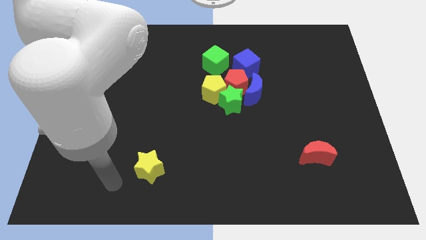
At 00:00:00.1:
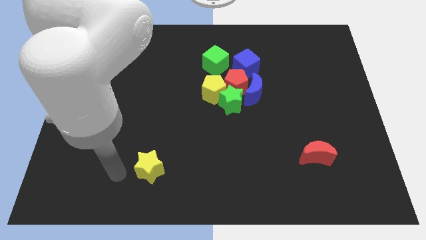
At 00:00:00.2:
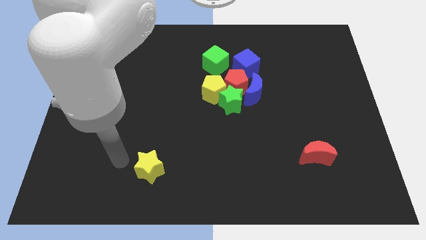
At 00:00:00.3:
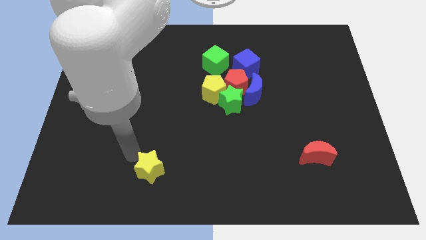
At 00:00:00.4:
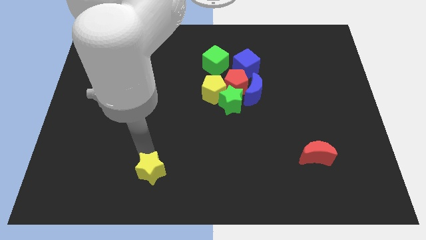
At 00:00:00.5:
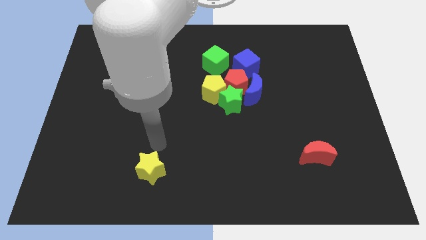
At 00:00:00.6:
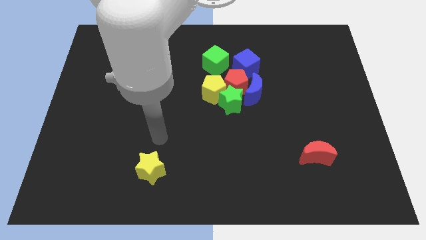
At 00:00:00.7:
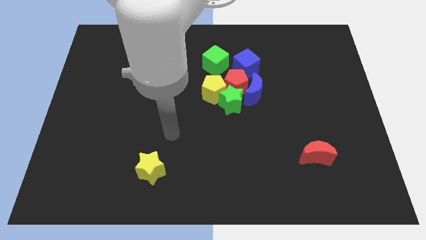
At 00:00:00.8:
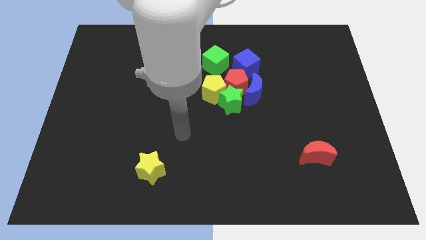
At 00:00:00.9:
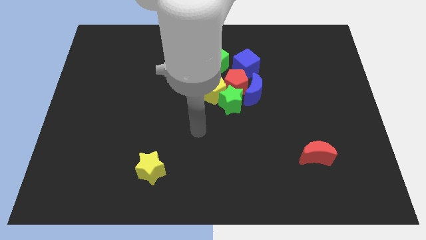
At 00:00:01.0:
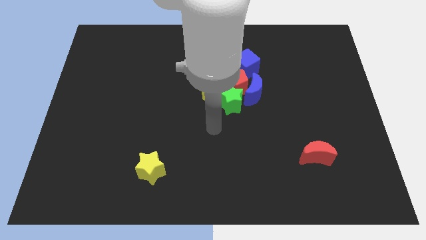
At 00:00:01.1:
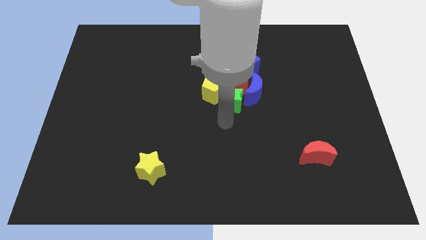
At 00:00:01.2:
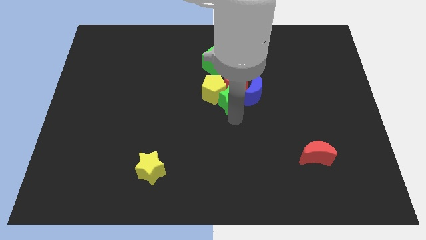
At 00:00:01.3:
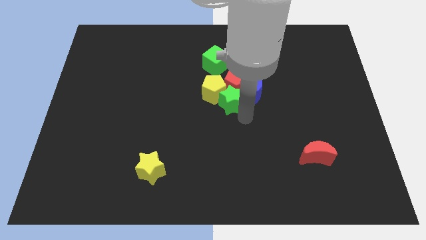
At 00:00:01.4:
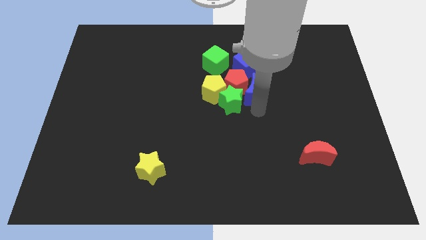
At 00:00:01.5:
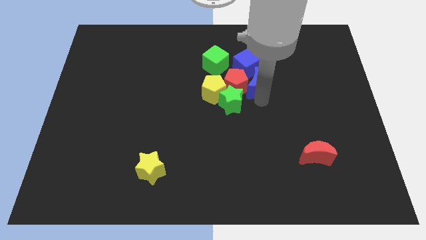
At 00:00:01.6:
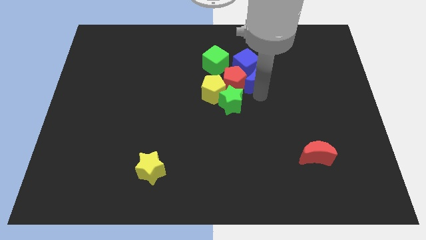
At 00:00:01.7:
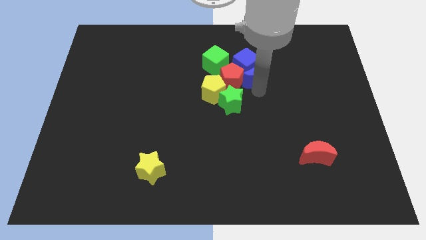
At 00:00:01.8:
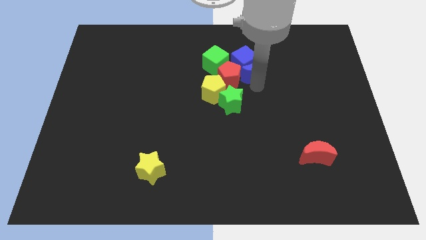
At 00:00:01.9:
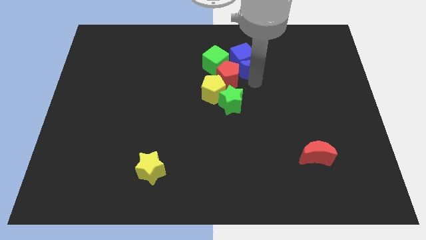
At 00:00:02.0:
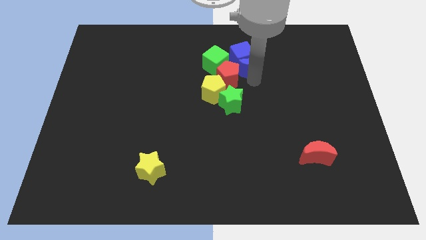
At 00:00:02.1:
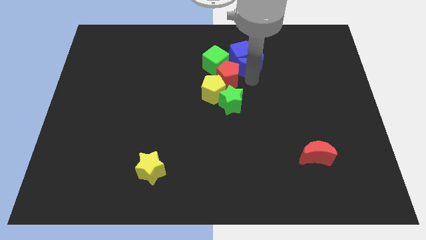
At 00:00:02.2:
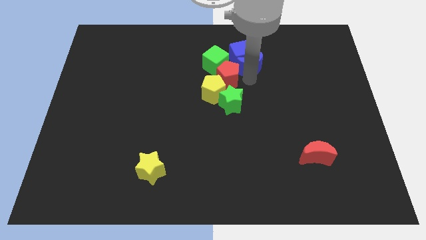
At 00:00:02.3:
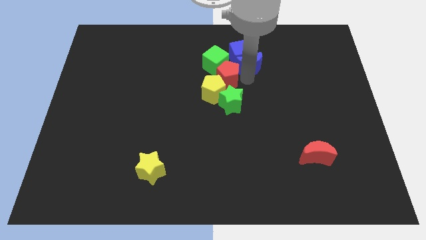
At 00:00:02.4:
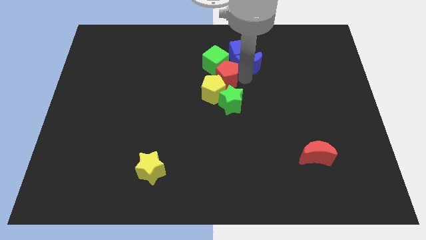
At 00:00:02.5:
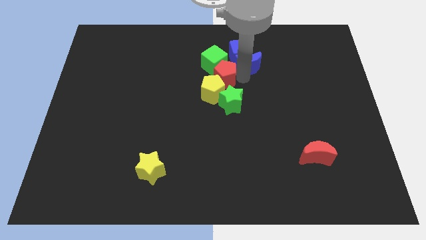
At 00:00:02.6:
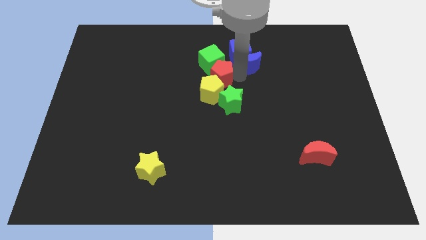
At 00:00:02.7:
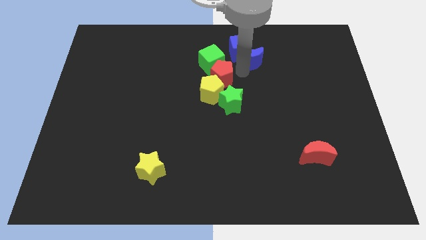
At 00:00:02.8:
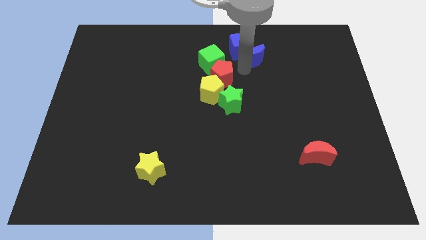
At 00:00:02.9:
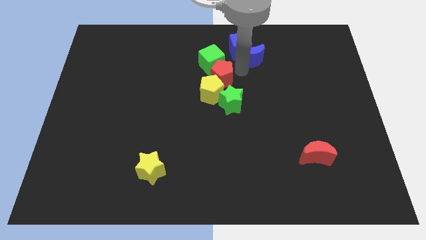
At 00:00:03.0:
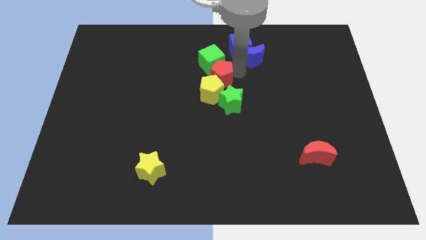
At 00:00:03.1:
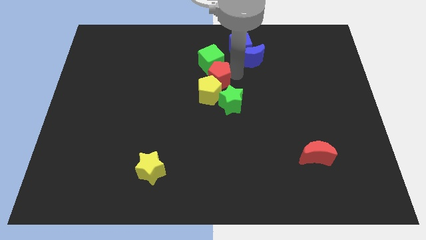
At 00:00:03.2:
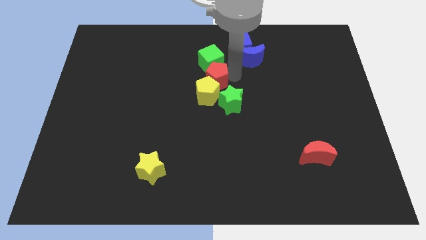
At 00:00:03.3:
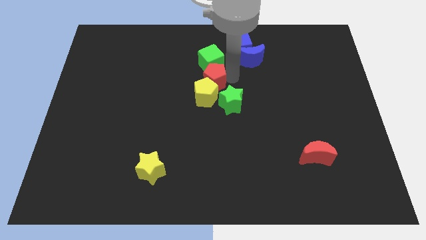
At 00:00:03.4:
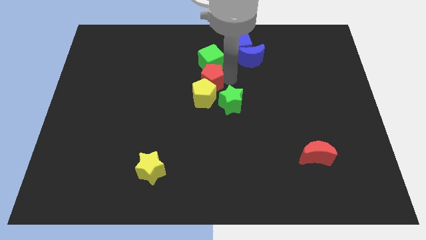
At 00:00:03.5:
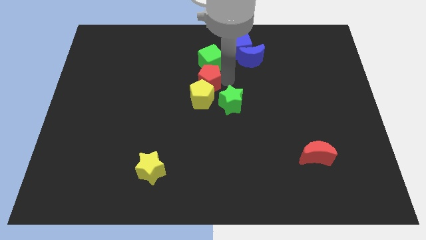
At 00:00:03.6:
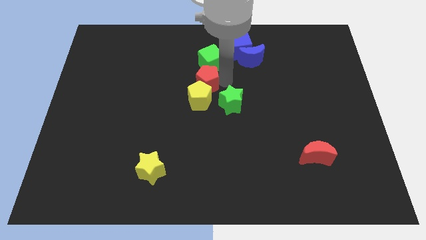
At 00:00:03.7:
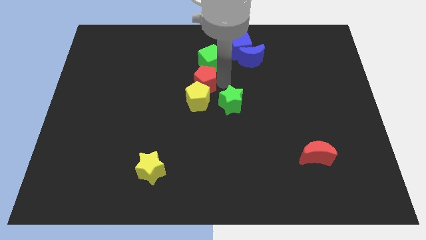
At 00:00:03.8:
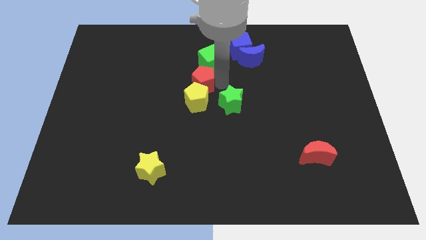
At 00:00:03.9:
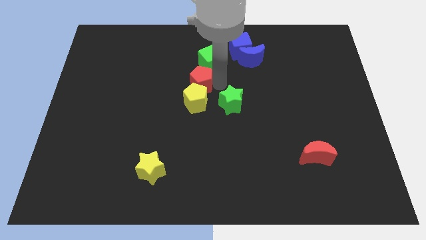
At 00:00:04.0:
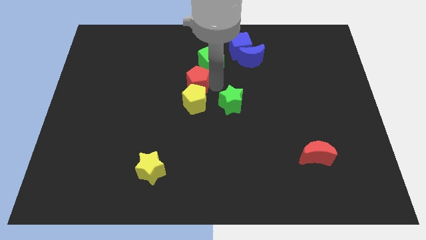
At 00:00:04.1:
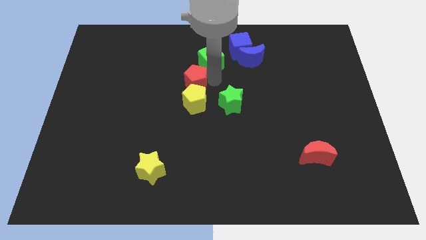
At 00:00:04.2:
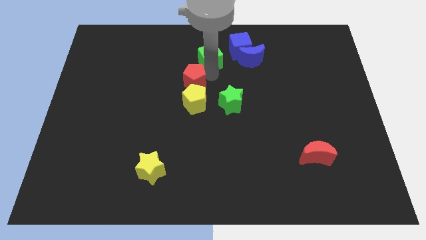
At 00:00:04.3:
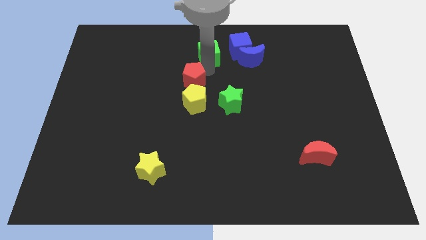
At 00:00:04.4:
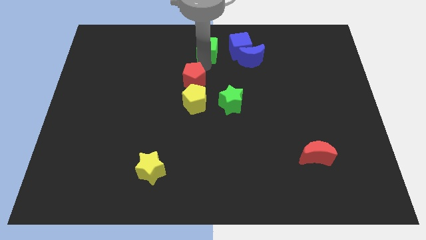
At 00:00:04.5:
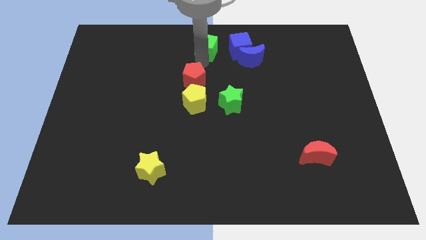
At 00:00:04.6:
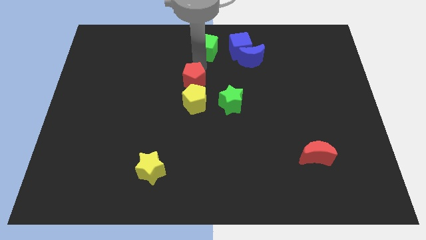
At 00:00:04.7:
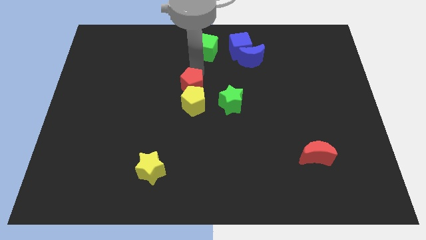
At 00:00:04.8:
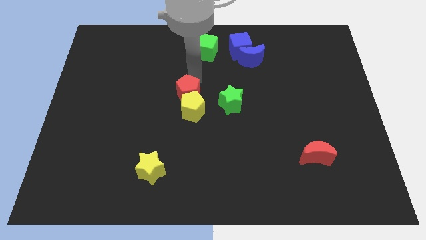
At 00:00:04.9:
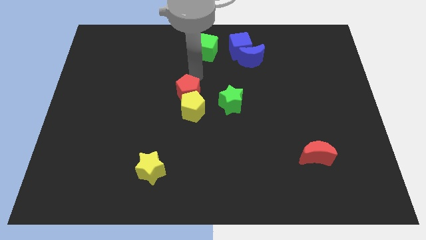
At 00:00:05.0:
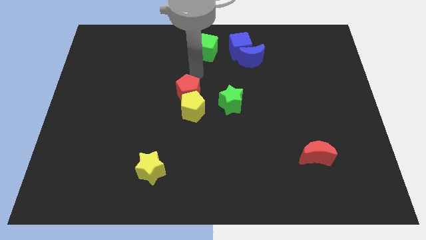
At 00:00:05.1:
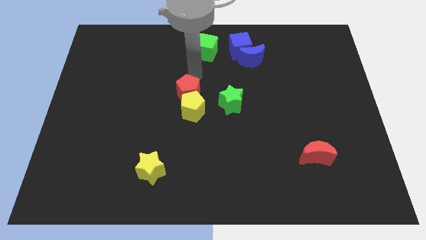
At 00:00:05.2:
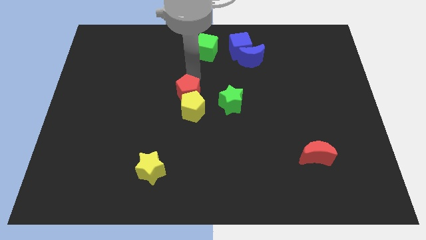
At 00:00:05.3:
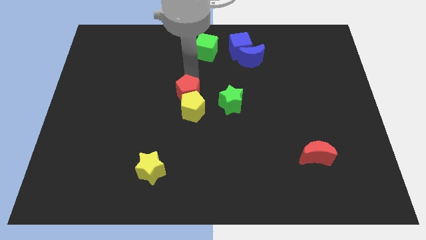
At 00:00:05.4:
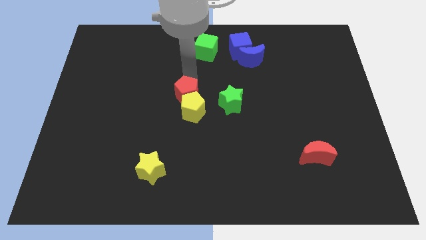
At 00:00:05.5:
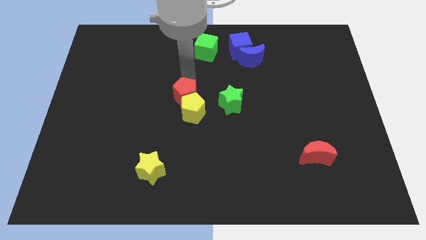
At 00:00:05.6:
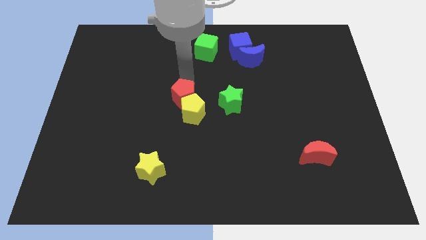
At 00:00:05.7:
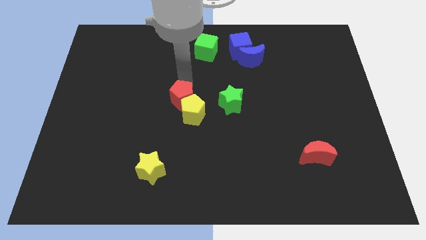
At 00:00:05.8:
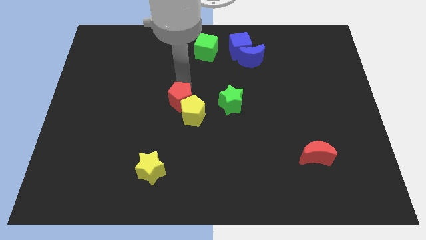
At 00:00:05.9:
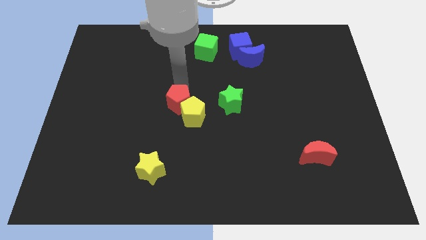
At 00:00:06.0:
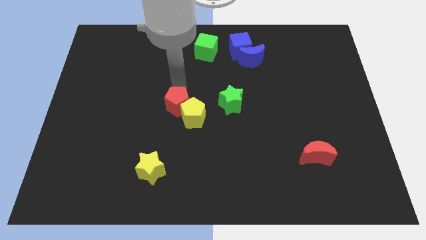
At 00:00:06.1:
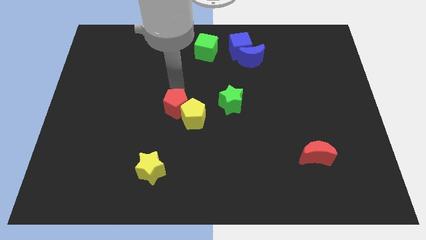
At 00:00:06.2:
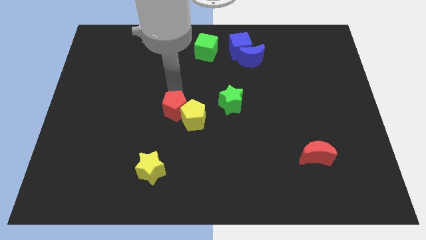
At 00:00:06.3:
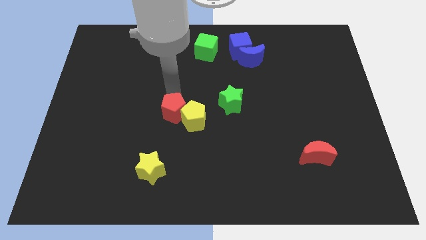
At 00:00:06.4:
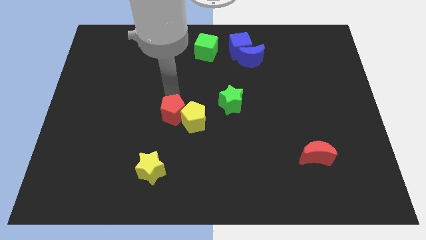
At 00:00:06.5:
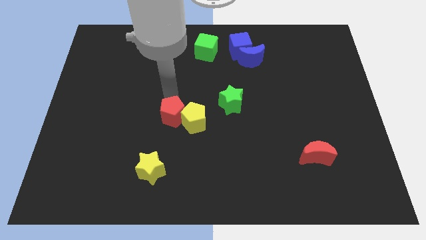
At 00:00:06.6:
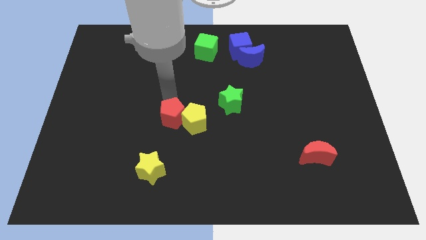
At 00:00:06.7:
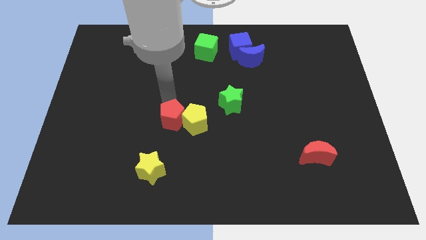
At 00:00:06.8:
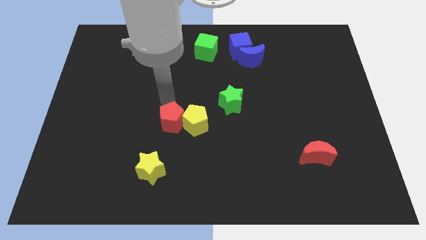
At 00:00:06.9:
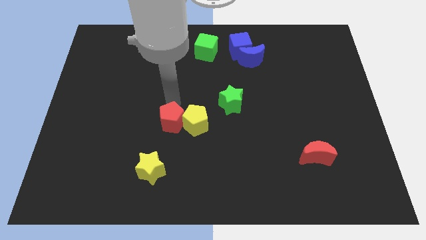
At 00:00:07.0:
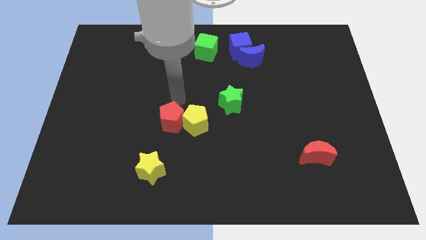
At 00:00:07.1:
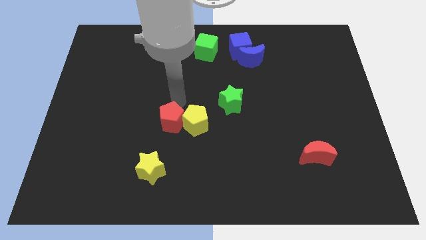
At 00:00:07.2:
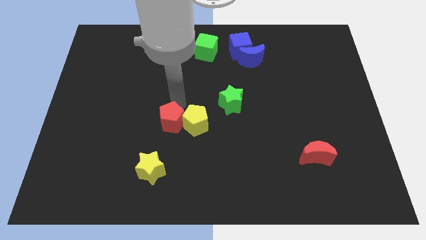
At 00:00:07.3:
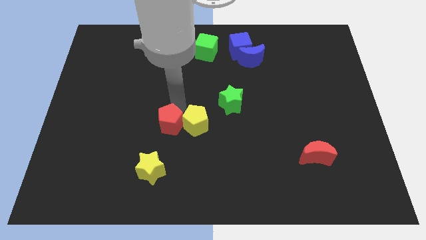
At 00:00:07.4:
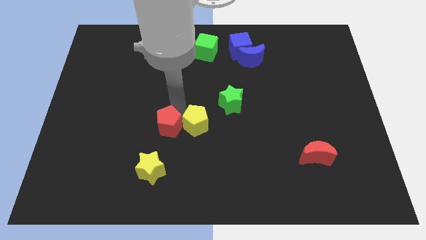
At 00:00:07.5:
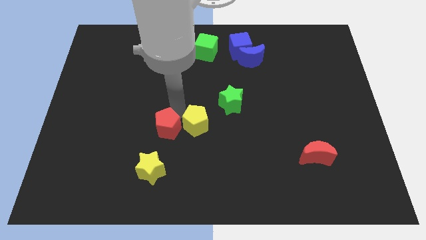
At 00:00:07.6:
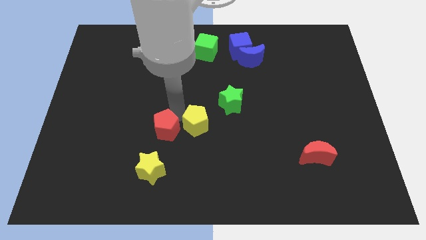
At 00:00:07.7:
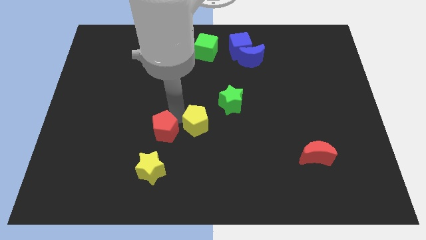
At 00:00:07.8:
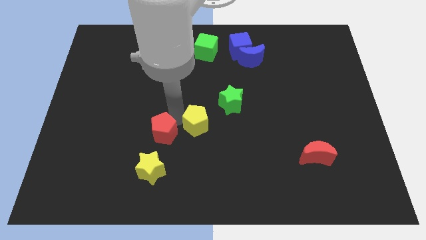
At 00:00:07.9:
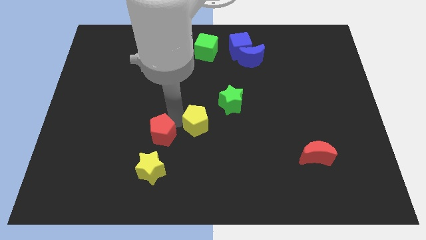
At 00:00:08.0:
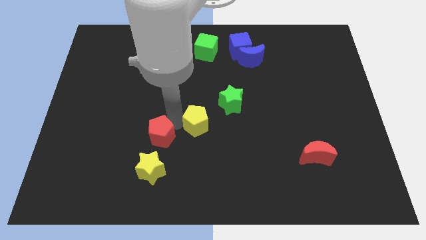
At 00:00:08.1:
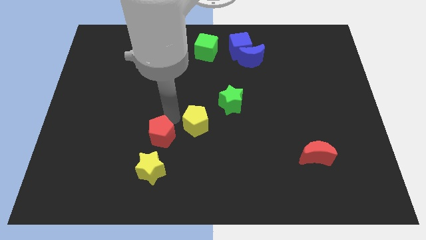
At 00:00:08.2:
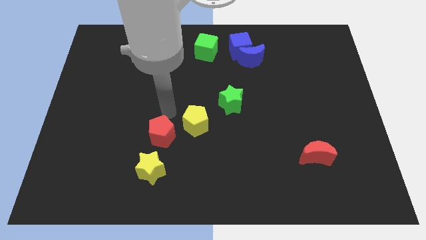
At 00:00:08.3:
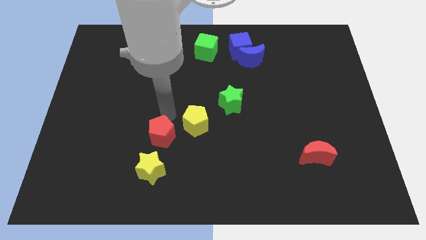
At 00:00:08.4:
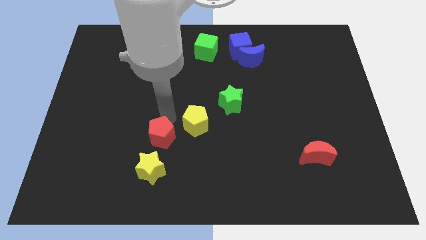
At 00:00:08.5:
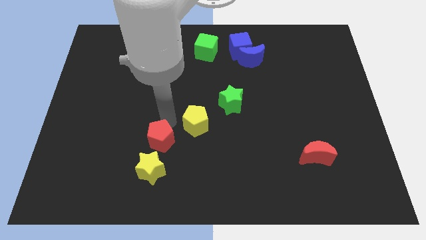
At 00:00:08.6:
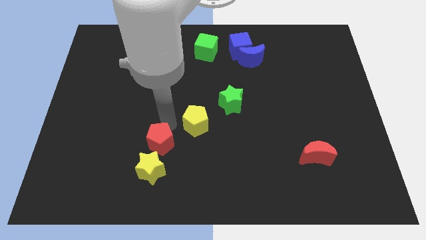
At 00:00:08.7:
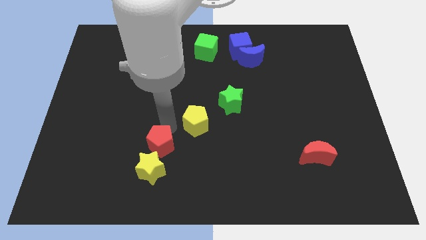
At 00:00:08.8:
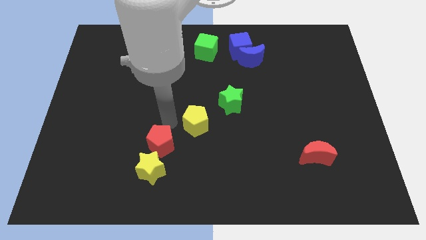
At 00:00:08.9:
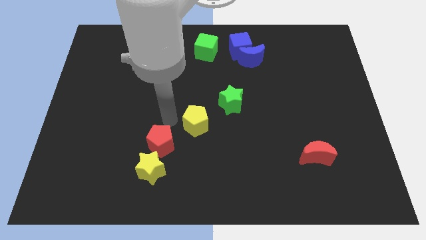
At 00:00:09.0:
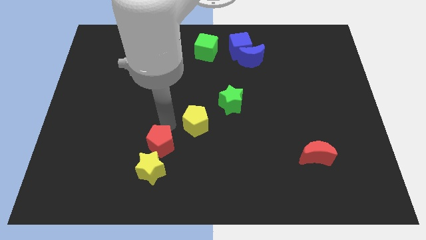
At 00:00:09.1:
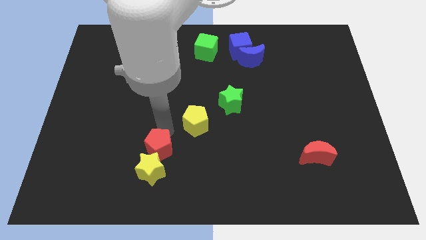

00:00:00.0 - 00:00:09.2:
push the red pentagon towards the yellow star
